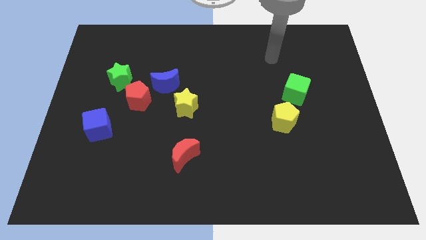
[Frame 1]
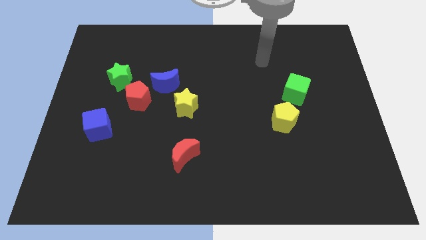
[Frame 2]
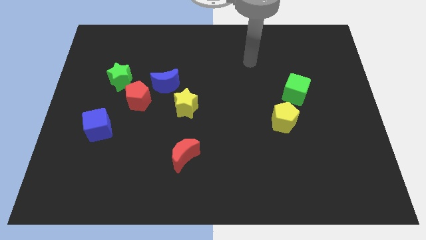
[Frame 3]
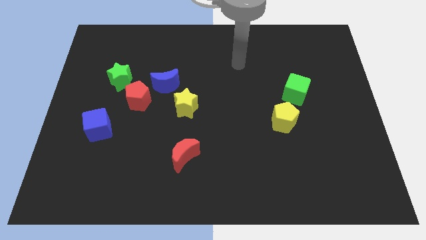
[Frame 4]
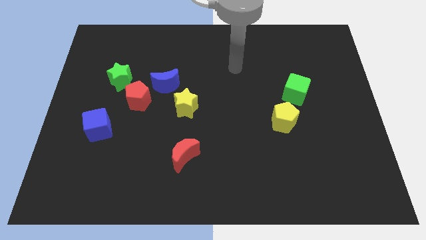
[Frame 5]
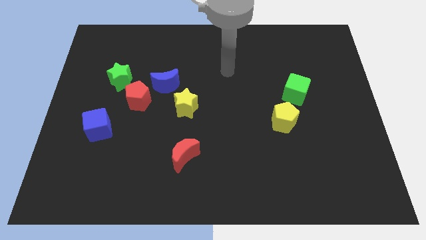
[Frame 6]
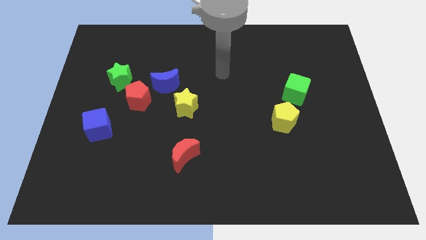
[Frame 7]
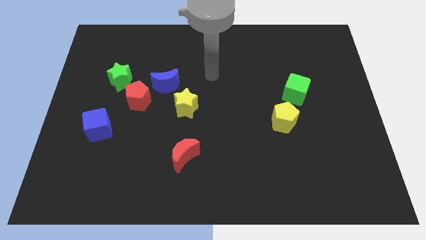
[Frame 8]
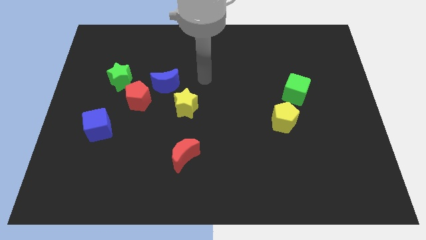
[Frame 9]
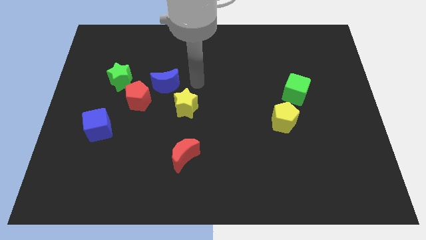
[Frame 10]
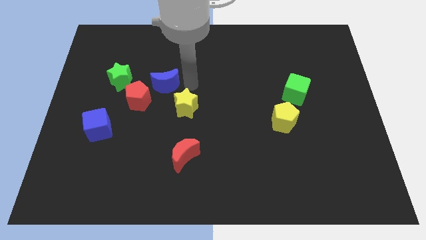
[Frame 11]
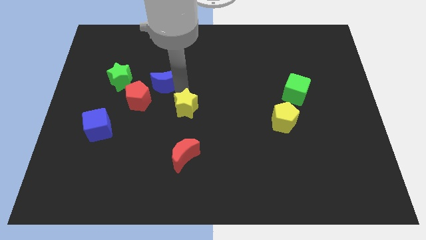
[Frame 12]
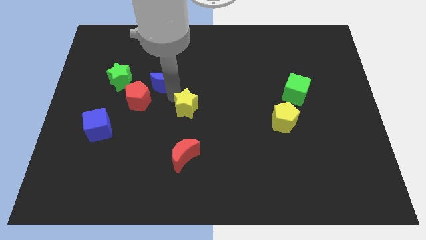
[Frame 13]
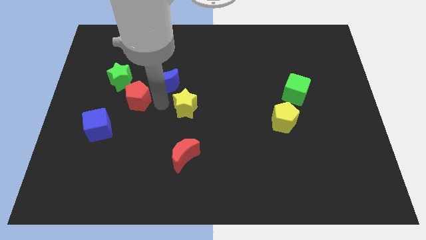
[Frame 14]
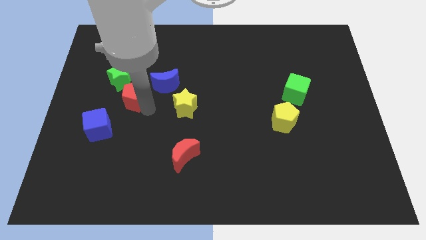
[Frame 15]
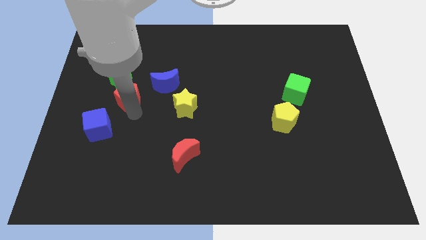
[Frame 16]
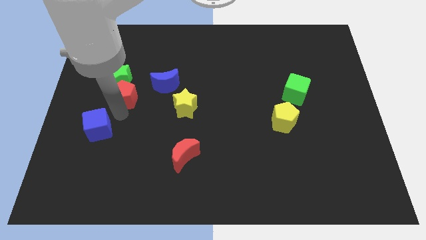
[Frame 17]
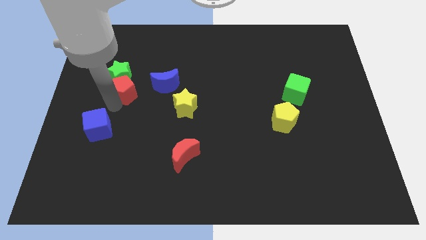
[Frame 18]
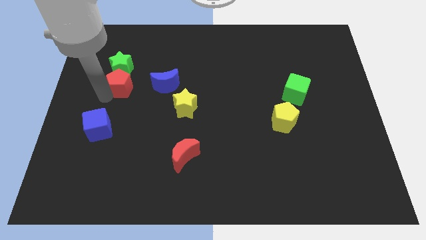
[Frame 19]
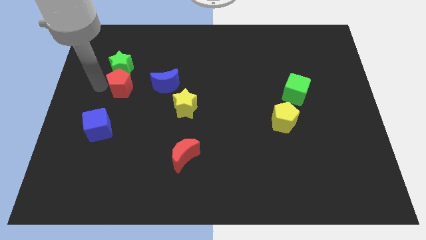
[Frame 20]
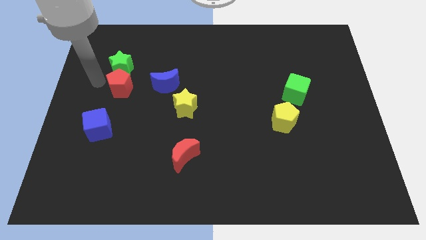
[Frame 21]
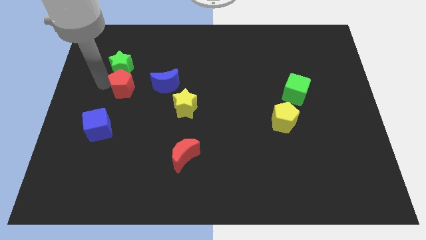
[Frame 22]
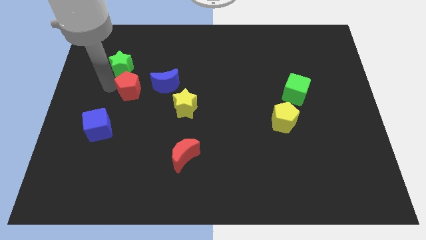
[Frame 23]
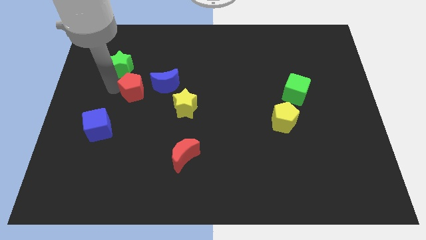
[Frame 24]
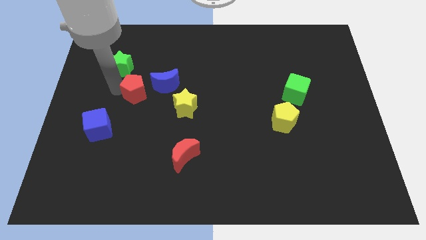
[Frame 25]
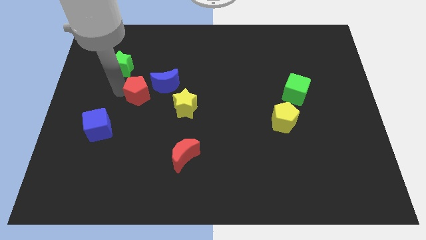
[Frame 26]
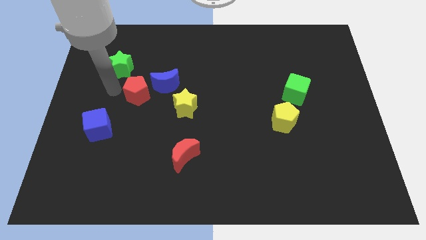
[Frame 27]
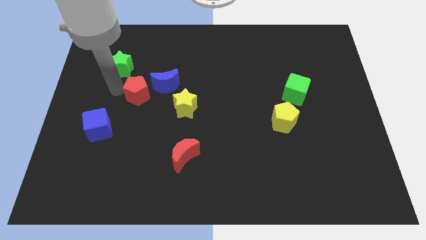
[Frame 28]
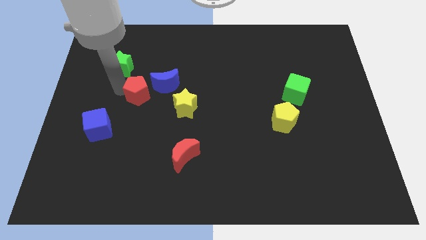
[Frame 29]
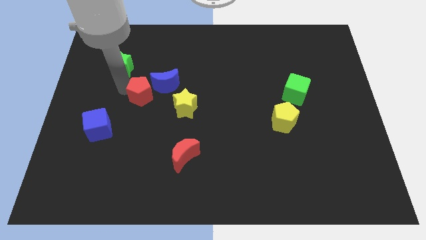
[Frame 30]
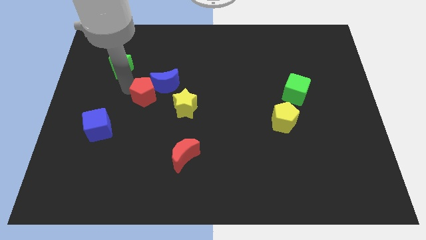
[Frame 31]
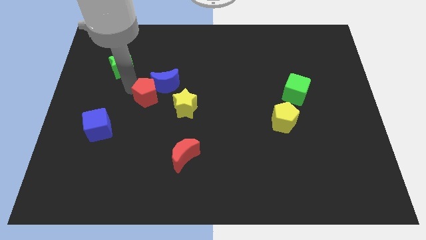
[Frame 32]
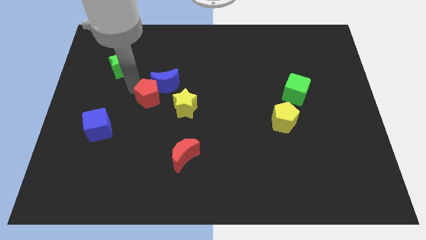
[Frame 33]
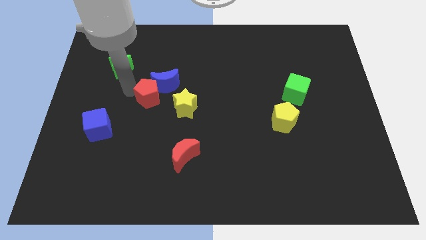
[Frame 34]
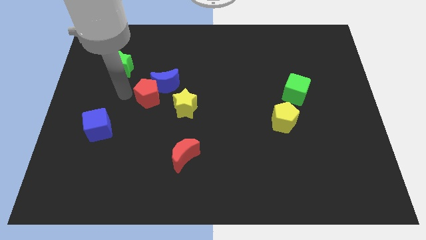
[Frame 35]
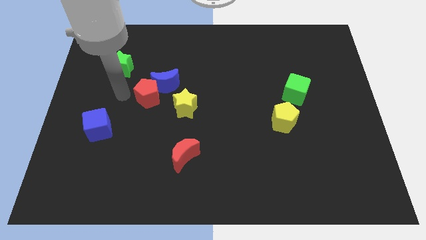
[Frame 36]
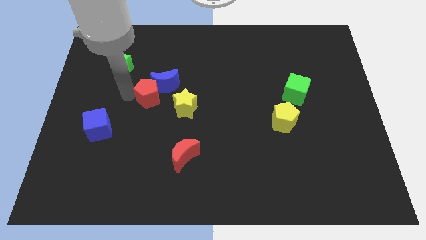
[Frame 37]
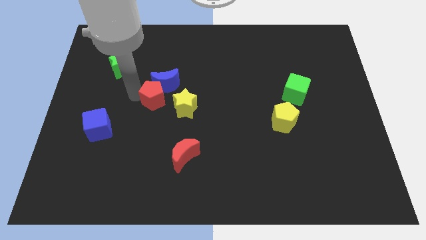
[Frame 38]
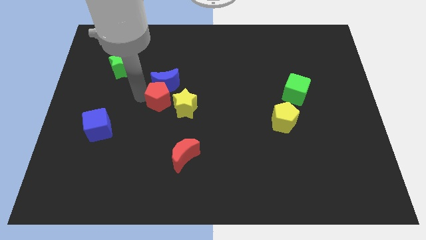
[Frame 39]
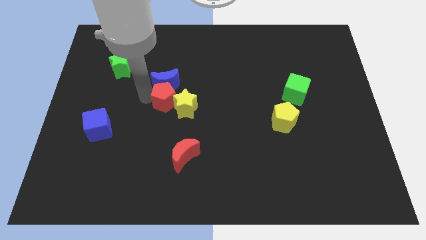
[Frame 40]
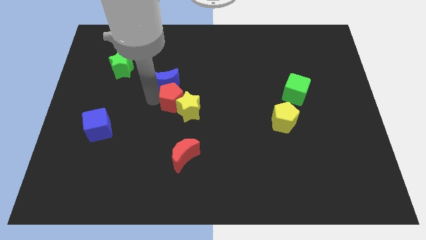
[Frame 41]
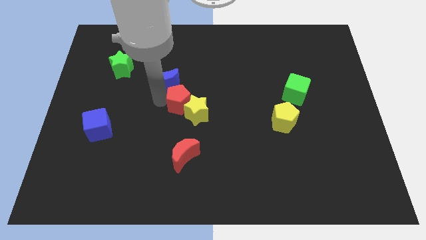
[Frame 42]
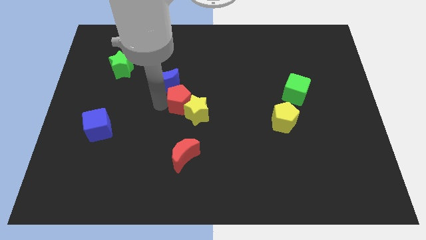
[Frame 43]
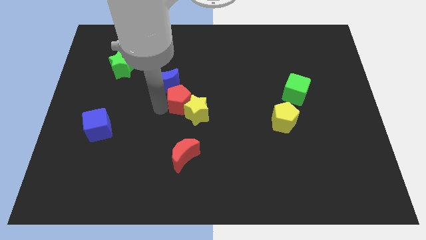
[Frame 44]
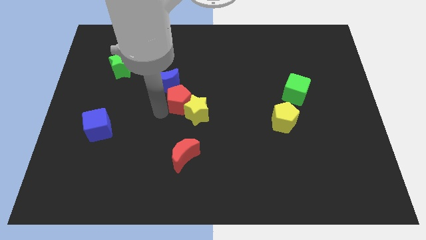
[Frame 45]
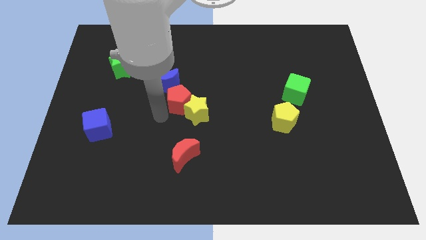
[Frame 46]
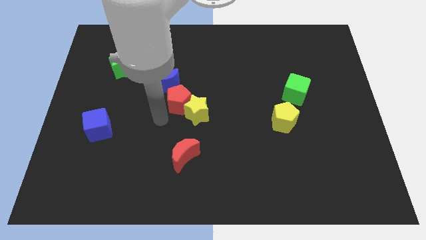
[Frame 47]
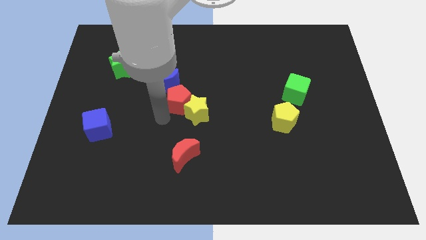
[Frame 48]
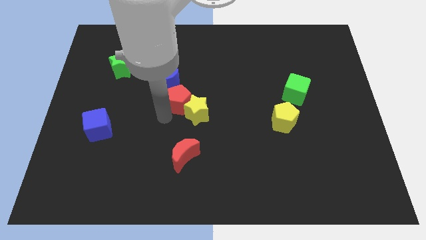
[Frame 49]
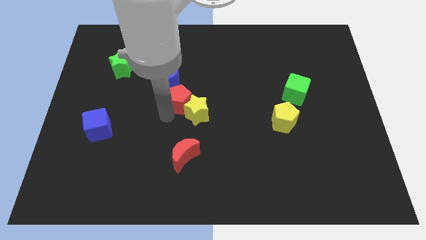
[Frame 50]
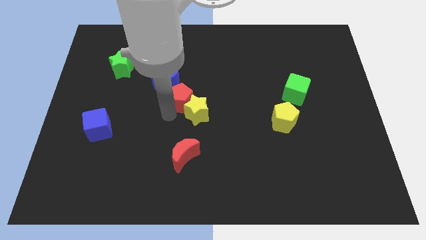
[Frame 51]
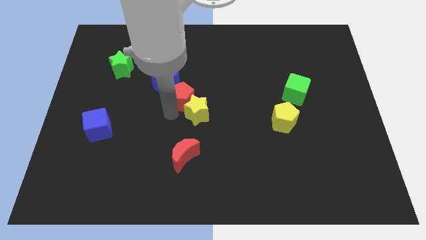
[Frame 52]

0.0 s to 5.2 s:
move the red pentagon right of the blue moon

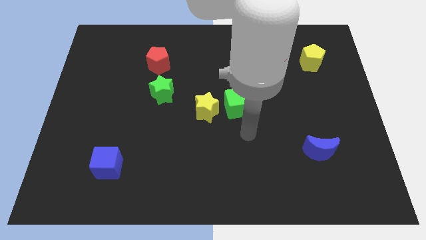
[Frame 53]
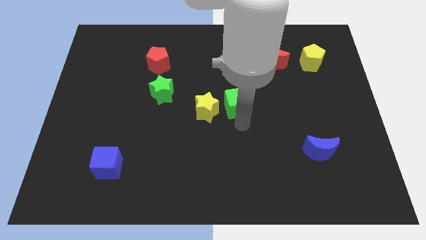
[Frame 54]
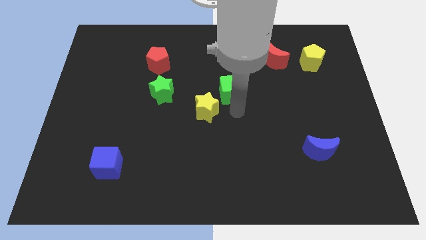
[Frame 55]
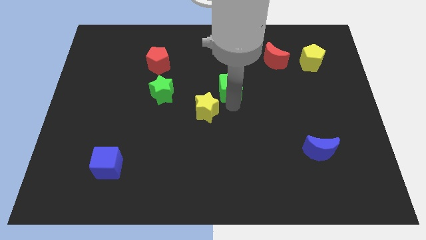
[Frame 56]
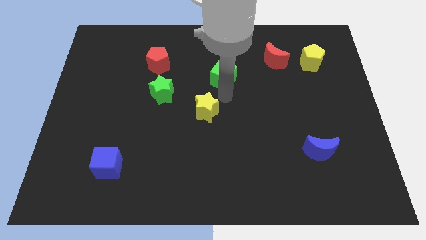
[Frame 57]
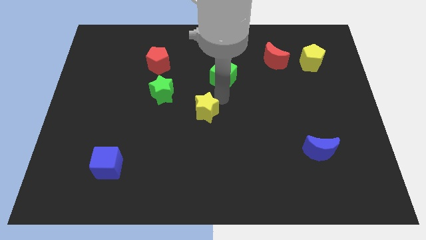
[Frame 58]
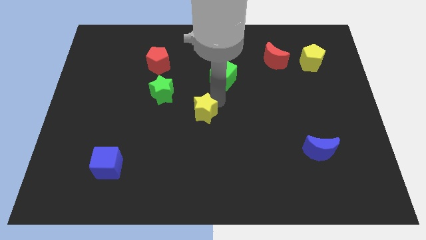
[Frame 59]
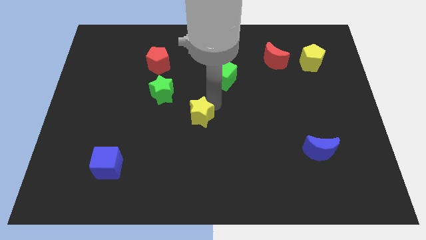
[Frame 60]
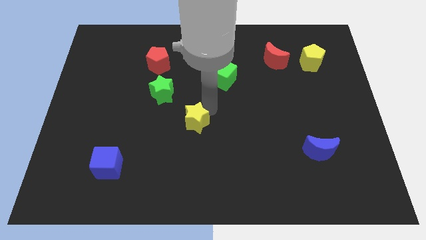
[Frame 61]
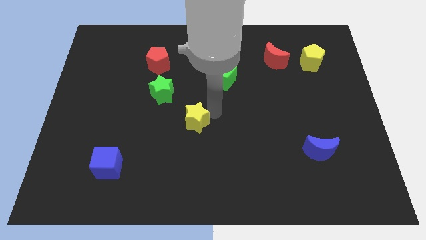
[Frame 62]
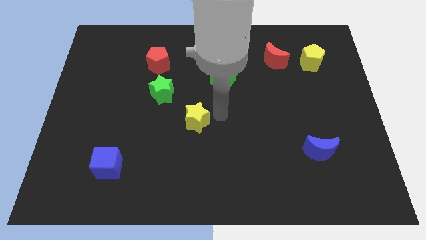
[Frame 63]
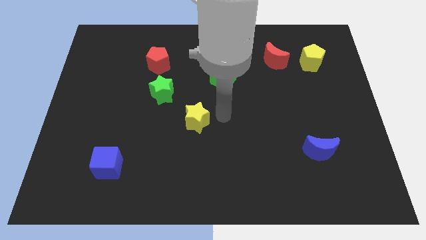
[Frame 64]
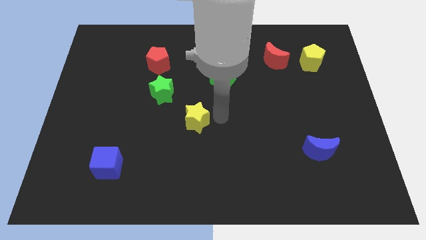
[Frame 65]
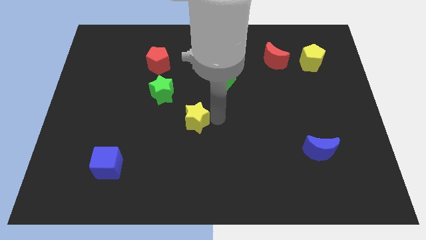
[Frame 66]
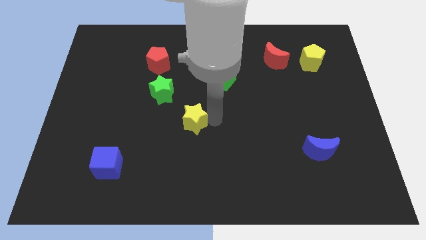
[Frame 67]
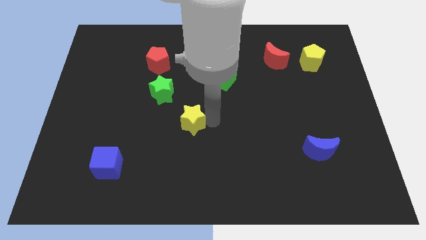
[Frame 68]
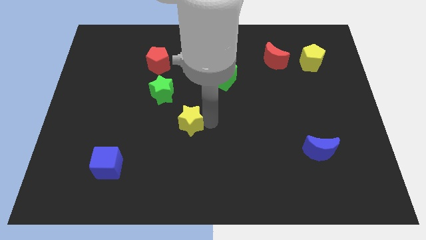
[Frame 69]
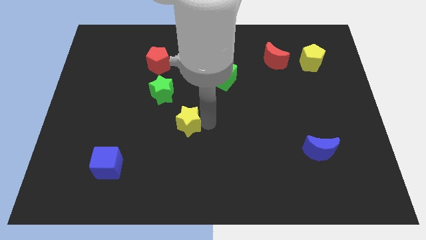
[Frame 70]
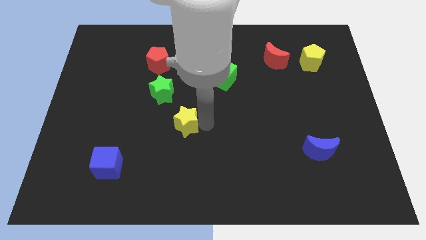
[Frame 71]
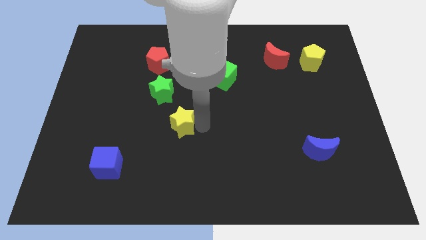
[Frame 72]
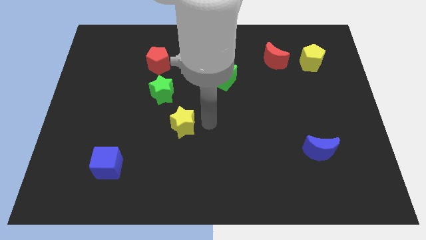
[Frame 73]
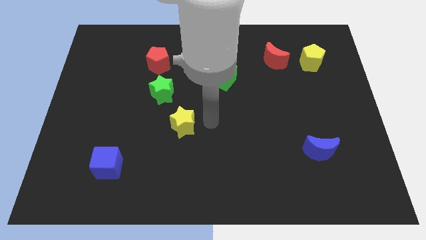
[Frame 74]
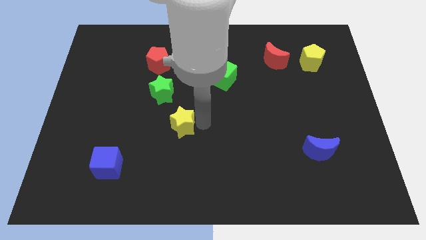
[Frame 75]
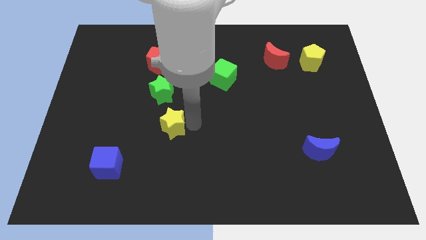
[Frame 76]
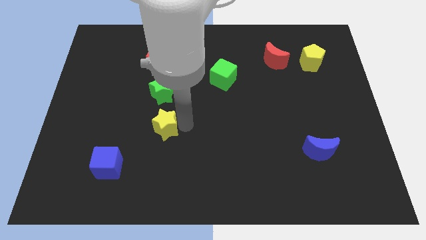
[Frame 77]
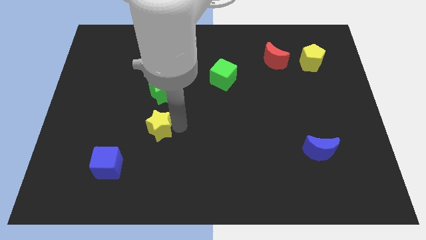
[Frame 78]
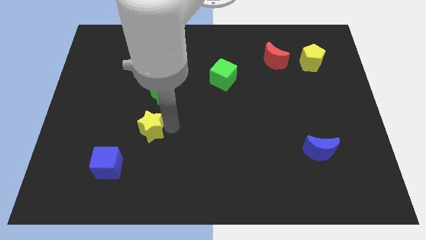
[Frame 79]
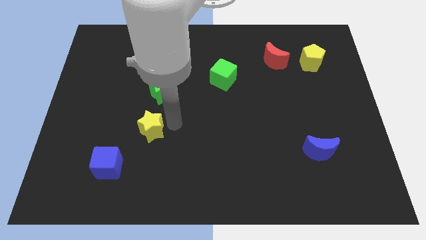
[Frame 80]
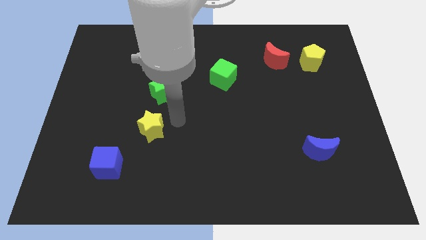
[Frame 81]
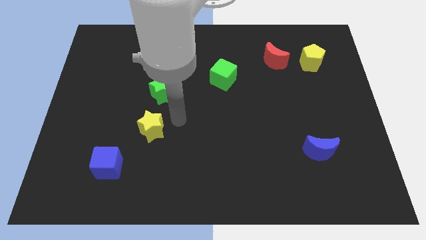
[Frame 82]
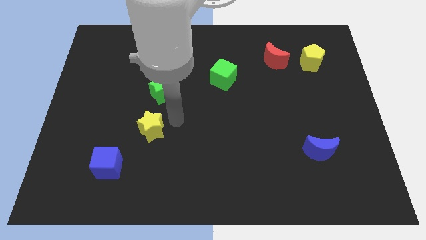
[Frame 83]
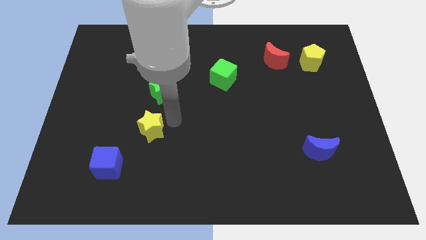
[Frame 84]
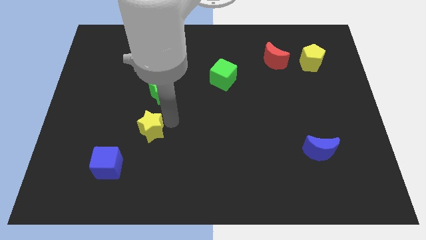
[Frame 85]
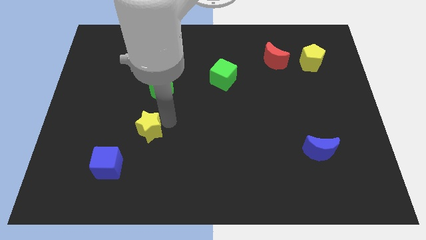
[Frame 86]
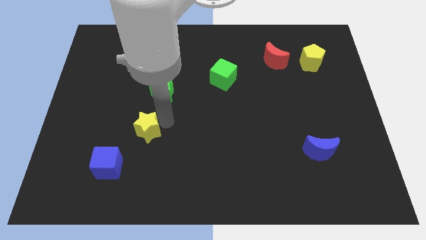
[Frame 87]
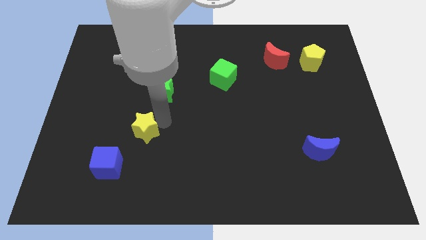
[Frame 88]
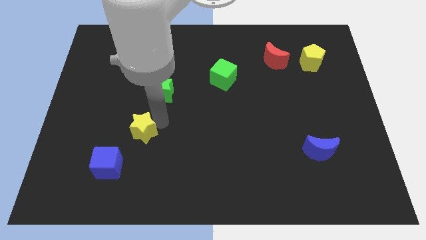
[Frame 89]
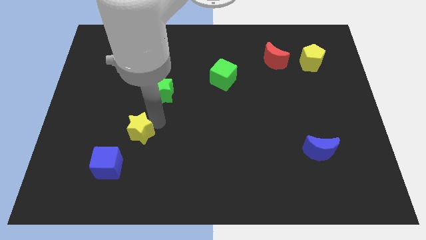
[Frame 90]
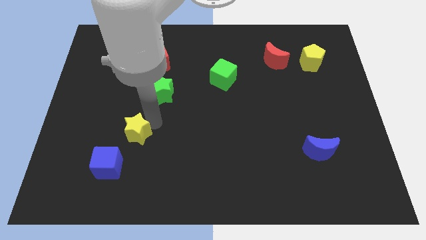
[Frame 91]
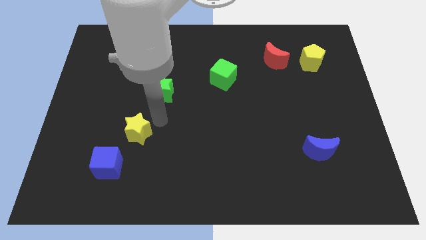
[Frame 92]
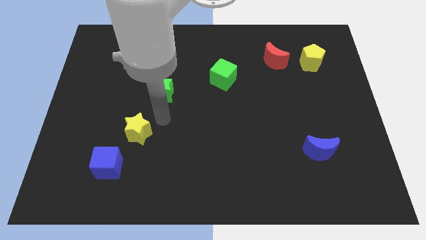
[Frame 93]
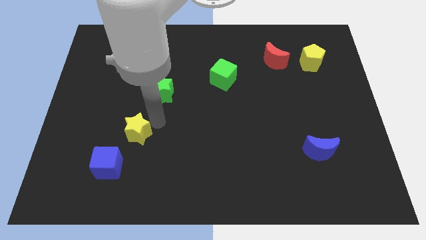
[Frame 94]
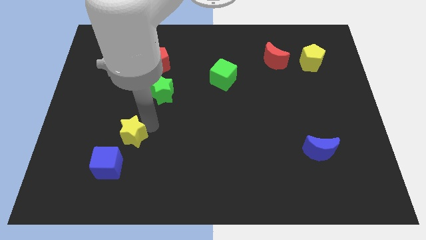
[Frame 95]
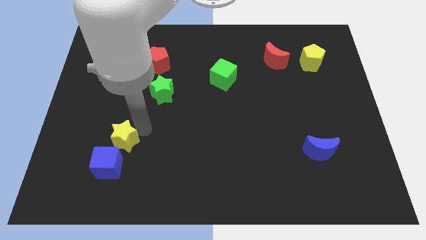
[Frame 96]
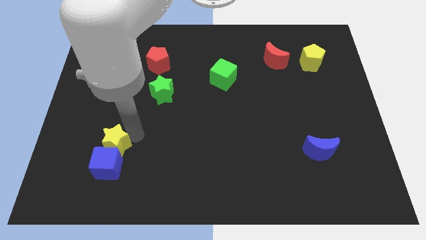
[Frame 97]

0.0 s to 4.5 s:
push the yellow star to the top left side of the blue cube
